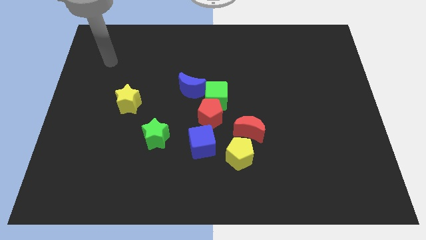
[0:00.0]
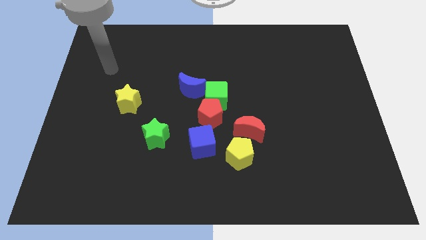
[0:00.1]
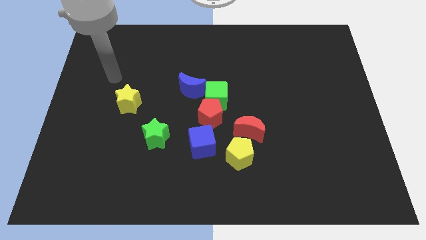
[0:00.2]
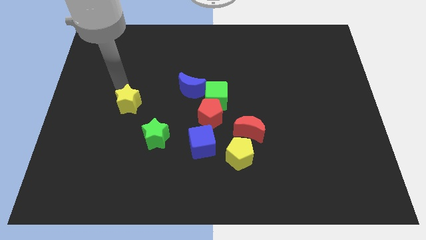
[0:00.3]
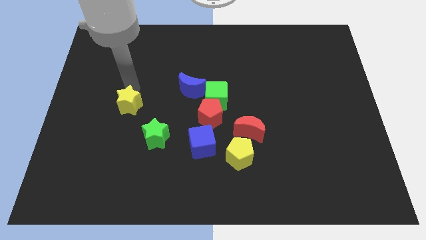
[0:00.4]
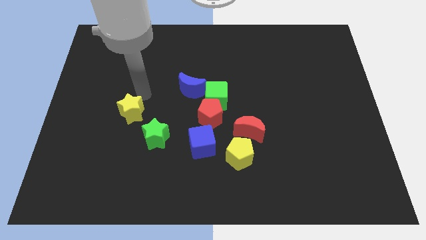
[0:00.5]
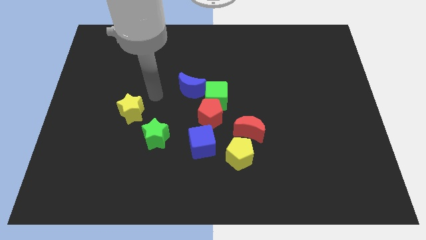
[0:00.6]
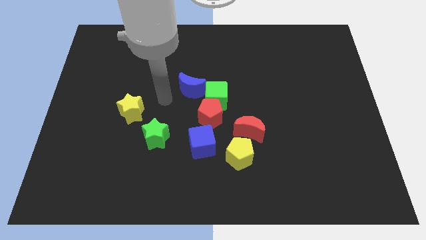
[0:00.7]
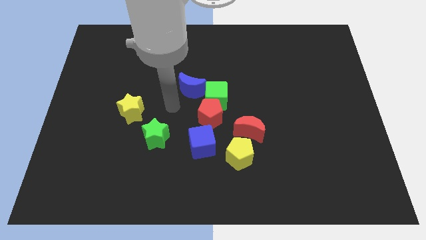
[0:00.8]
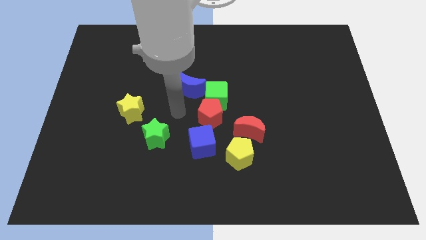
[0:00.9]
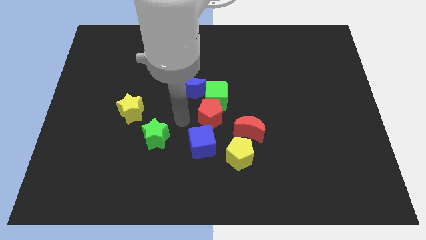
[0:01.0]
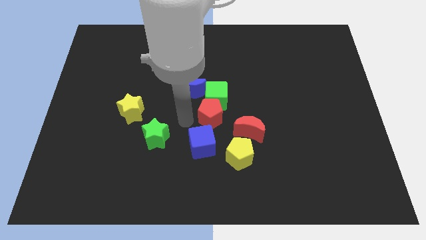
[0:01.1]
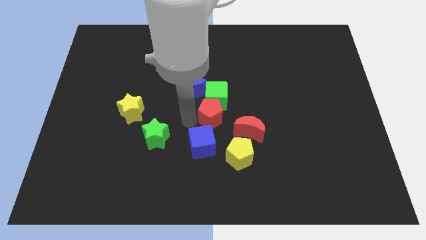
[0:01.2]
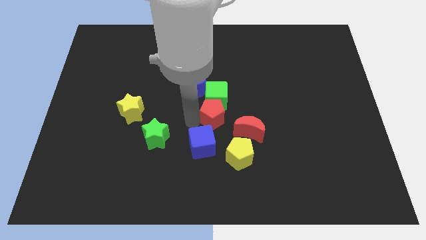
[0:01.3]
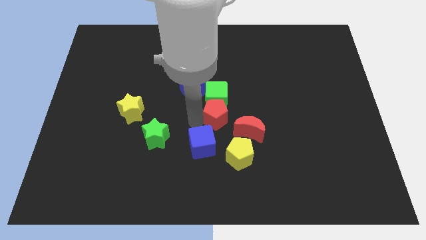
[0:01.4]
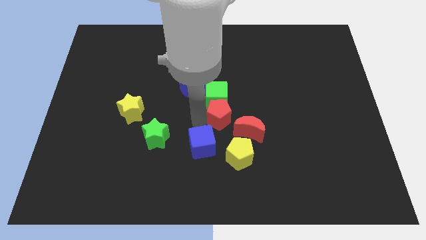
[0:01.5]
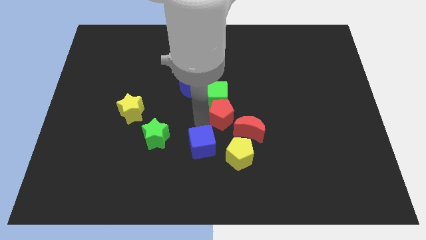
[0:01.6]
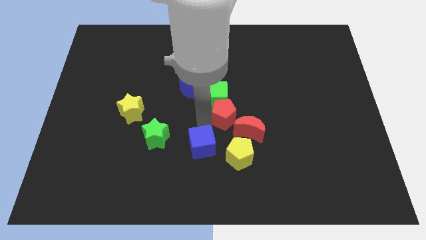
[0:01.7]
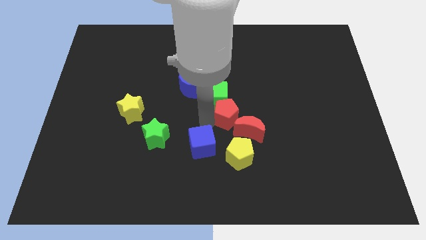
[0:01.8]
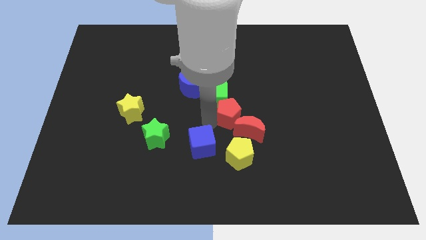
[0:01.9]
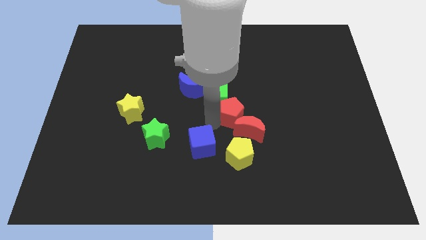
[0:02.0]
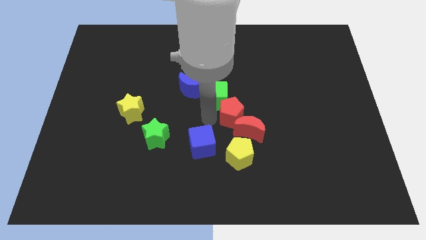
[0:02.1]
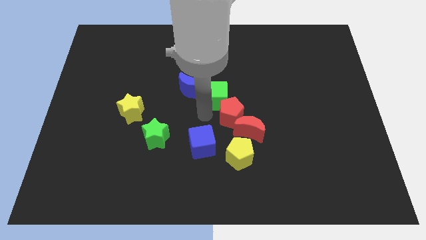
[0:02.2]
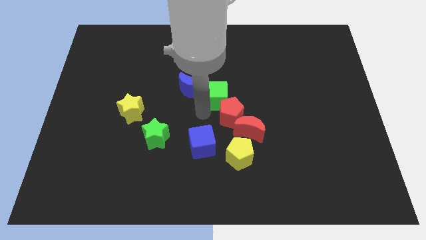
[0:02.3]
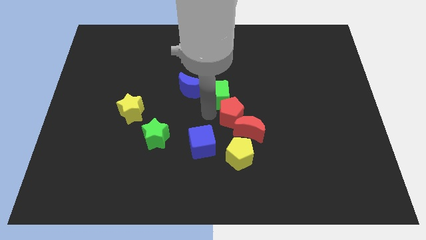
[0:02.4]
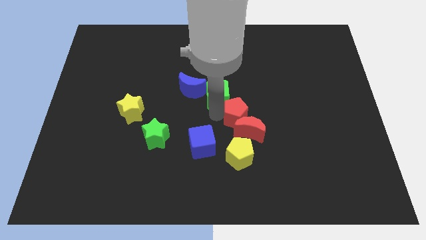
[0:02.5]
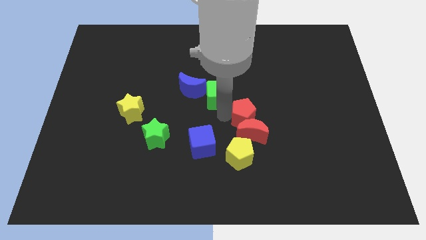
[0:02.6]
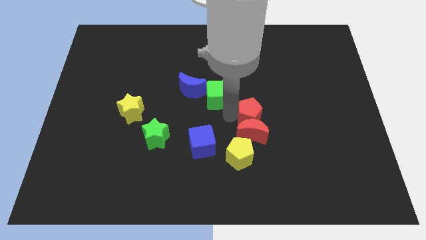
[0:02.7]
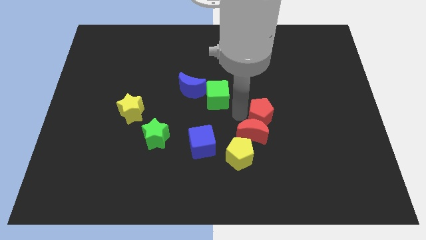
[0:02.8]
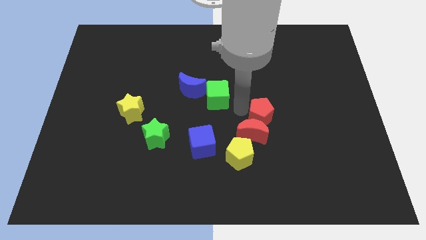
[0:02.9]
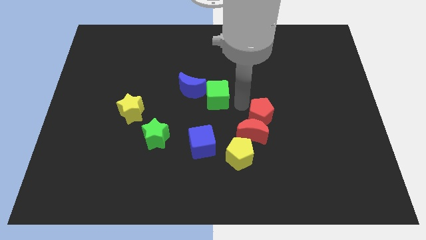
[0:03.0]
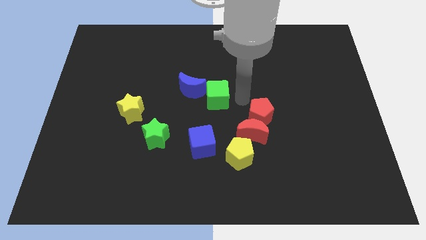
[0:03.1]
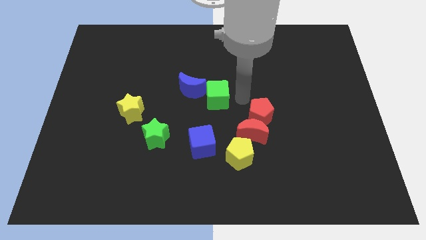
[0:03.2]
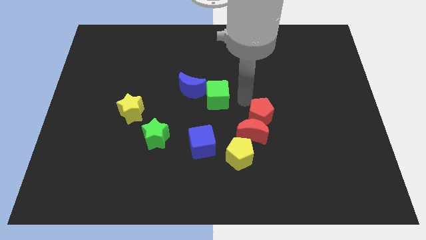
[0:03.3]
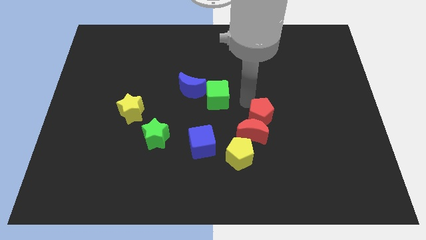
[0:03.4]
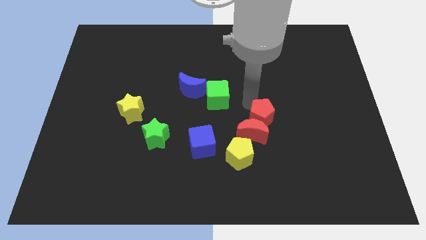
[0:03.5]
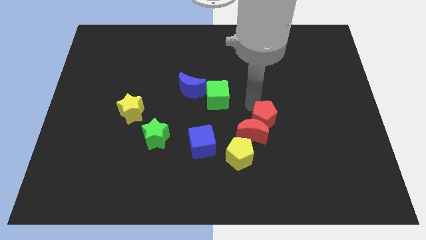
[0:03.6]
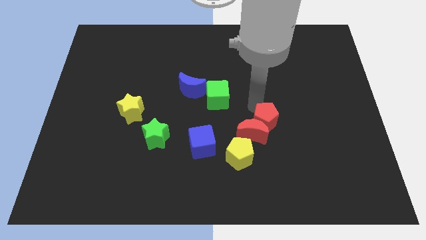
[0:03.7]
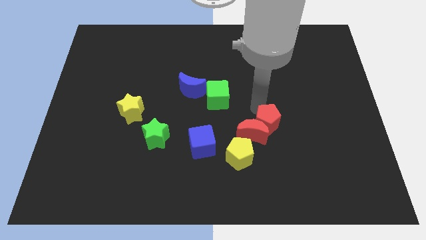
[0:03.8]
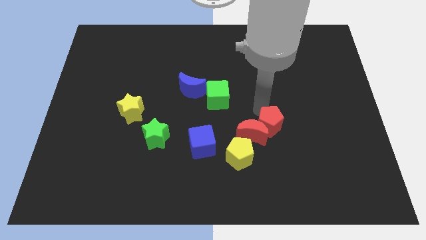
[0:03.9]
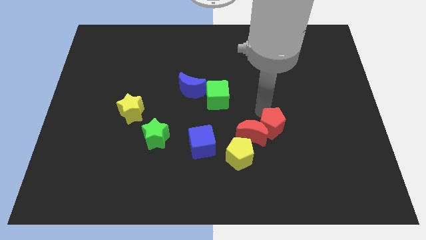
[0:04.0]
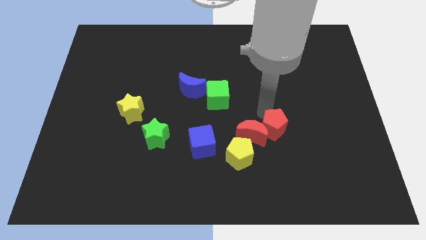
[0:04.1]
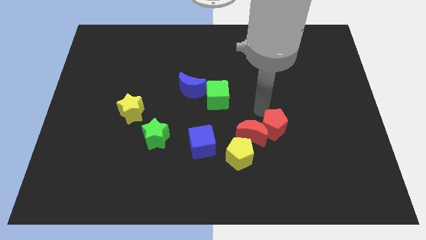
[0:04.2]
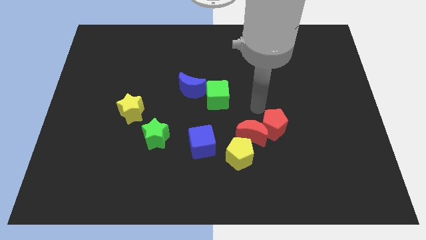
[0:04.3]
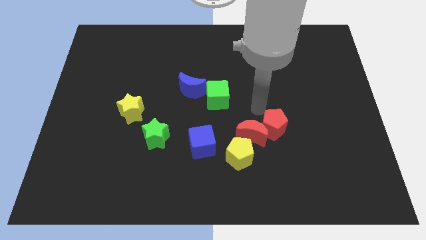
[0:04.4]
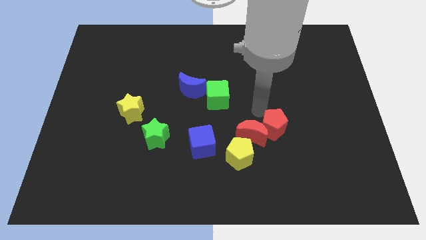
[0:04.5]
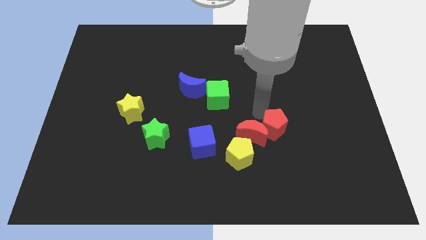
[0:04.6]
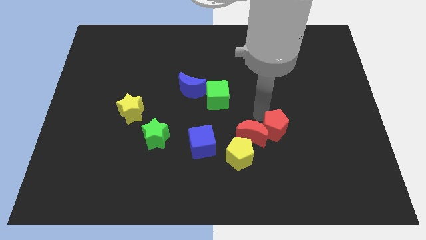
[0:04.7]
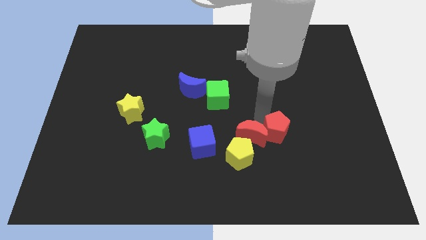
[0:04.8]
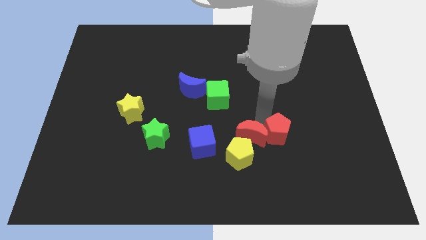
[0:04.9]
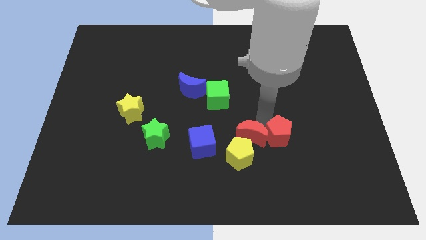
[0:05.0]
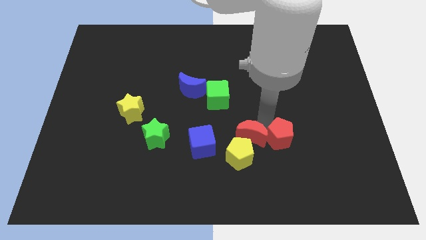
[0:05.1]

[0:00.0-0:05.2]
push the red pentagon right of the yellow pentagon

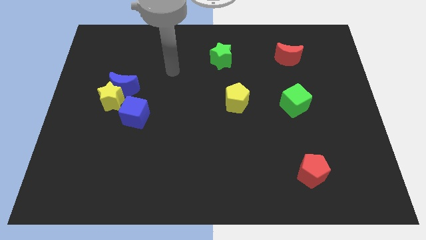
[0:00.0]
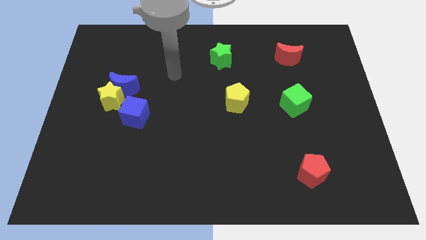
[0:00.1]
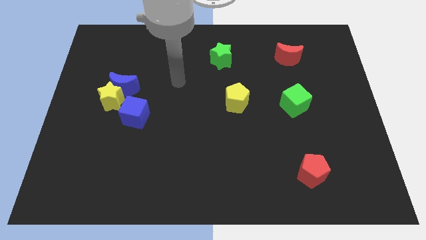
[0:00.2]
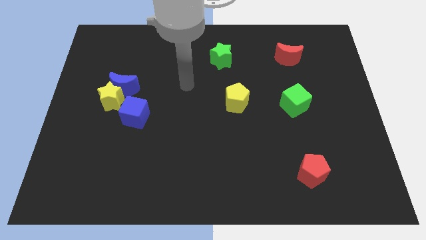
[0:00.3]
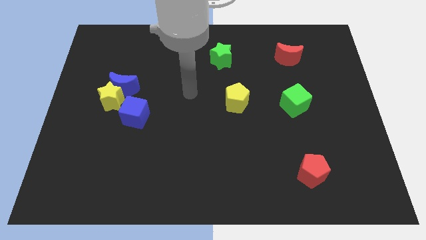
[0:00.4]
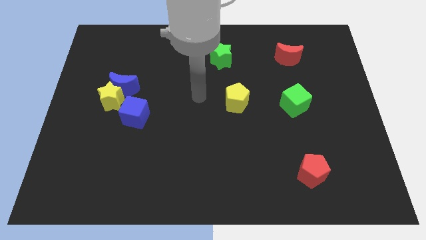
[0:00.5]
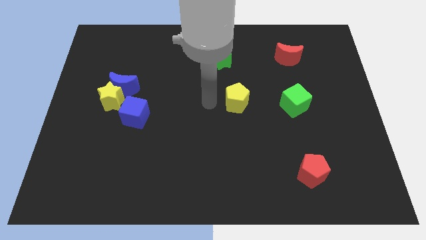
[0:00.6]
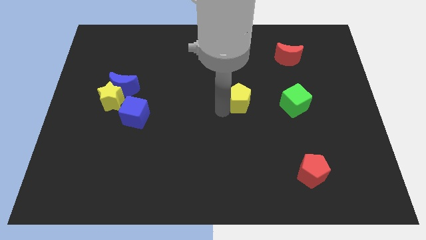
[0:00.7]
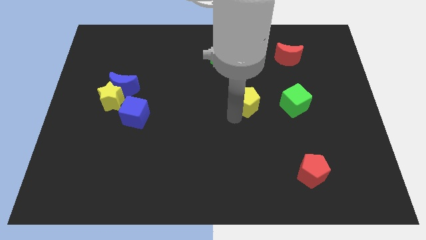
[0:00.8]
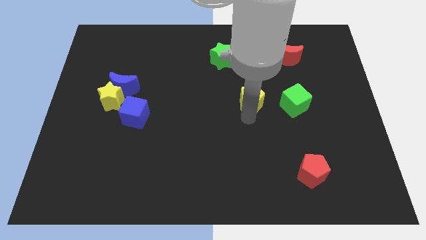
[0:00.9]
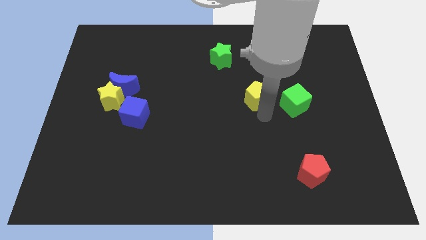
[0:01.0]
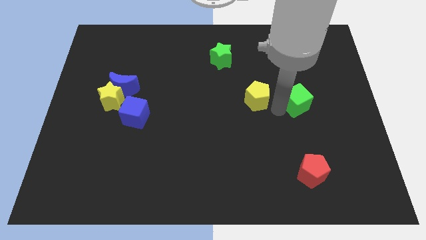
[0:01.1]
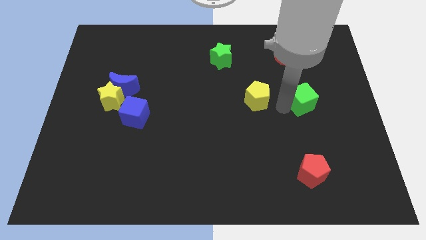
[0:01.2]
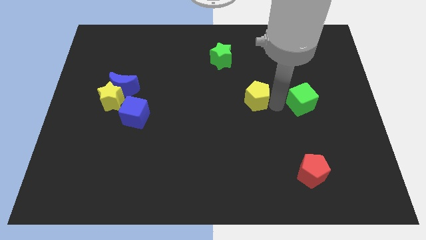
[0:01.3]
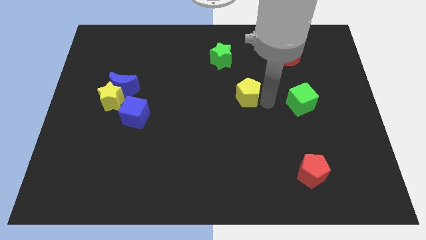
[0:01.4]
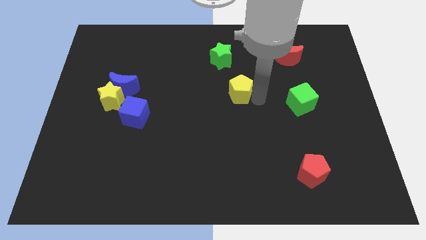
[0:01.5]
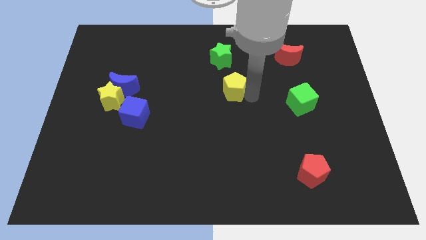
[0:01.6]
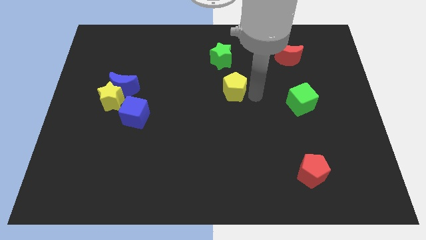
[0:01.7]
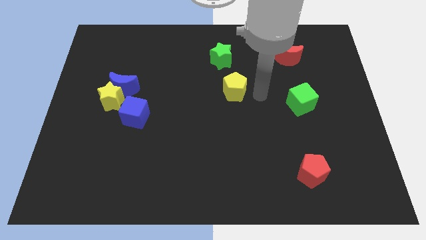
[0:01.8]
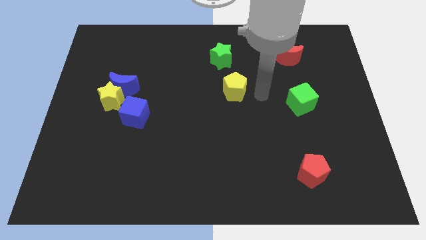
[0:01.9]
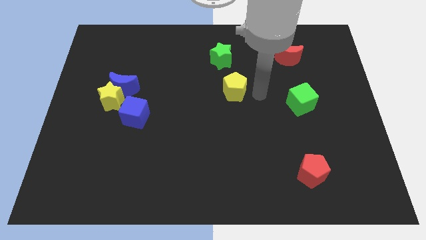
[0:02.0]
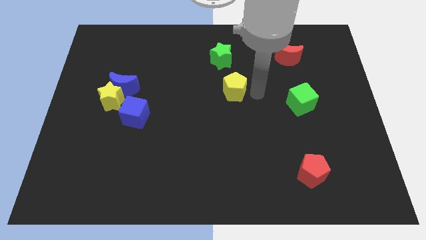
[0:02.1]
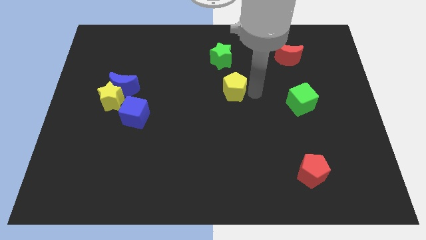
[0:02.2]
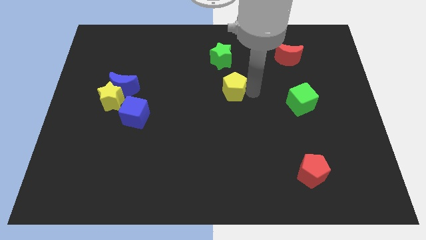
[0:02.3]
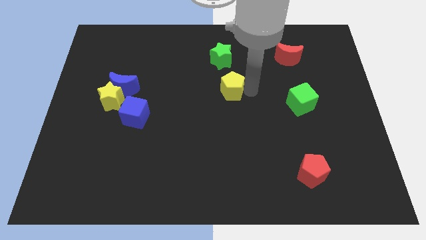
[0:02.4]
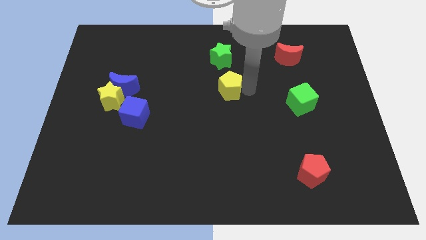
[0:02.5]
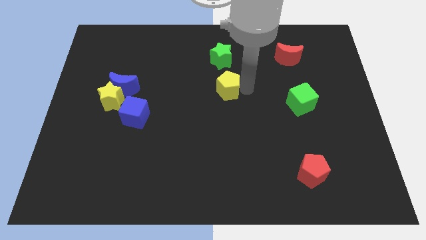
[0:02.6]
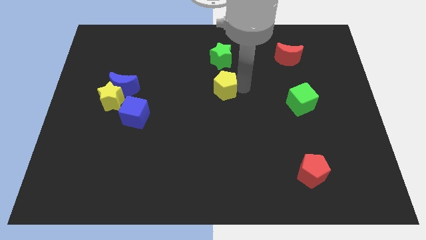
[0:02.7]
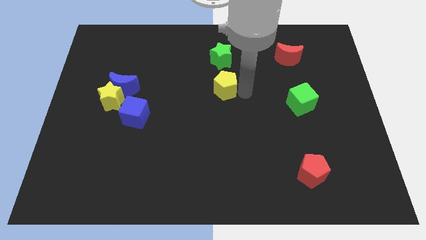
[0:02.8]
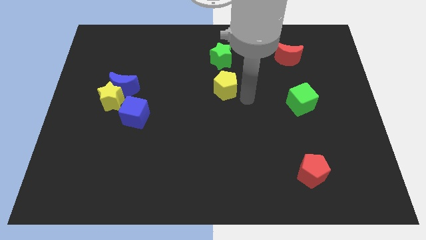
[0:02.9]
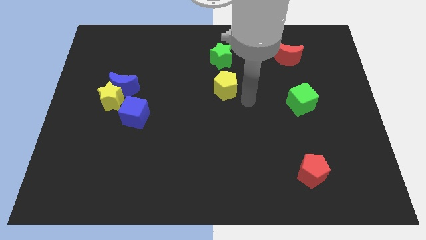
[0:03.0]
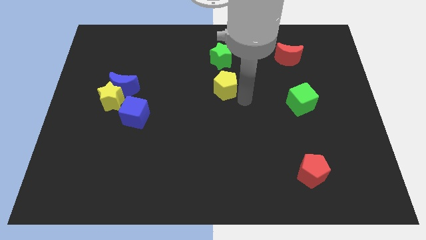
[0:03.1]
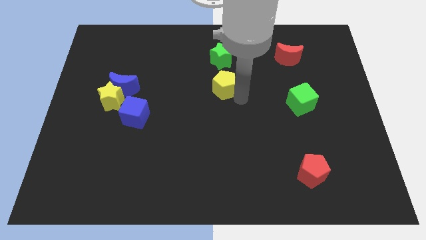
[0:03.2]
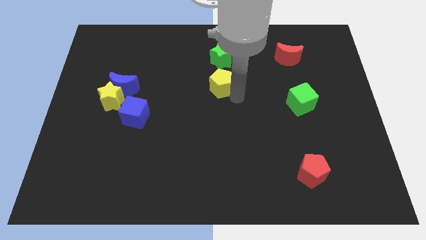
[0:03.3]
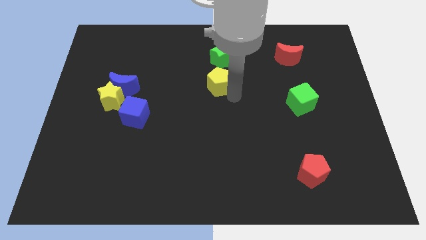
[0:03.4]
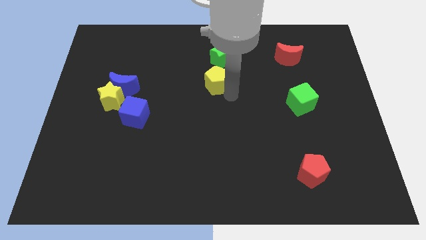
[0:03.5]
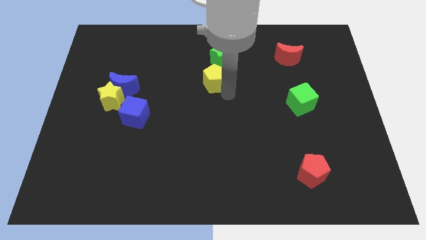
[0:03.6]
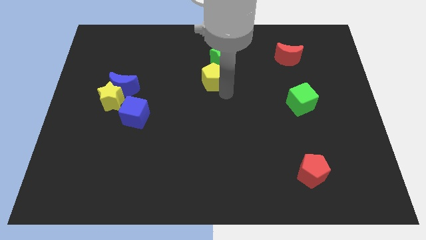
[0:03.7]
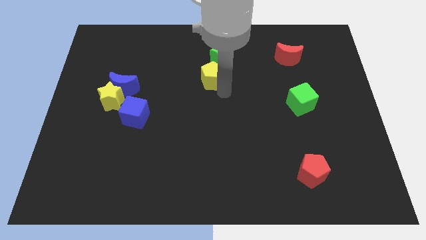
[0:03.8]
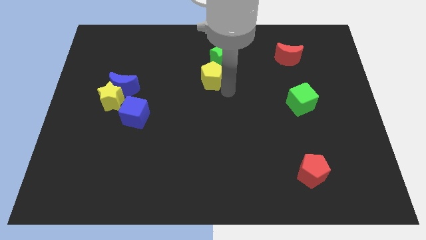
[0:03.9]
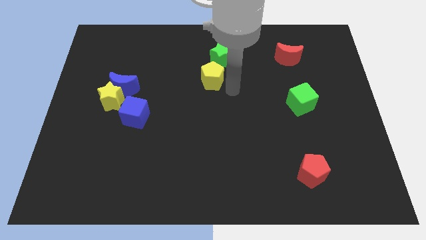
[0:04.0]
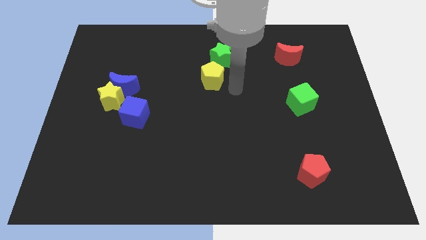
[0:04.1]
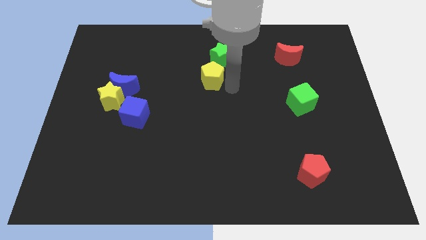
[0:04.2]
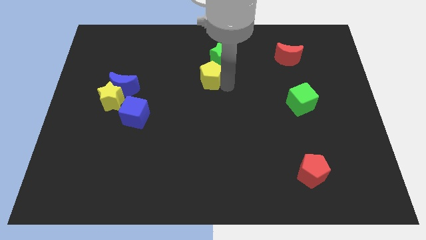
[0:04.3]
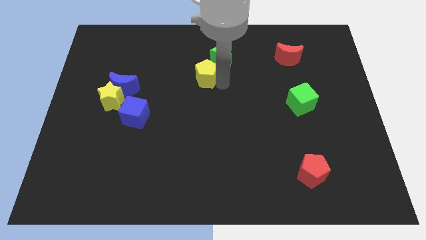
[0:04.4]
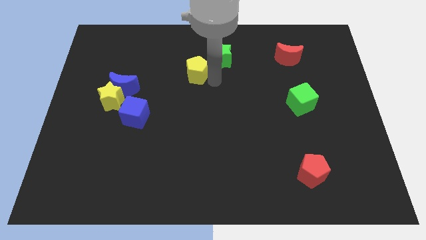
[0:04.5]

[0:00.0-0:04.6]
move the yellow pentagon to the left of the green star
